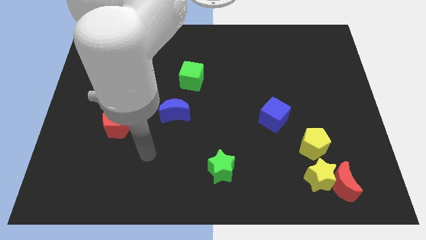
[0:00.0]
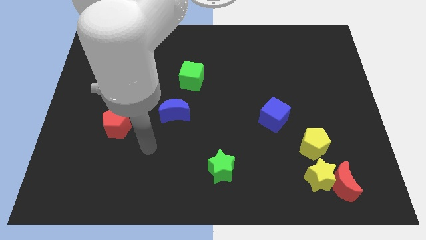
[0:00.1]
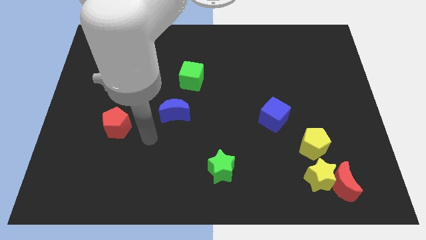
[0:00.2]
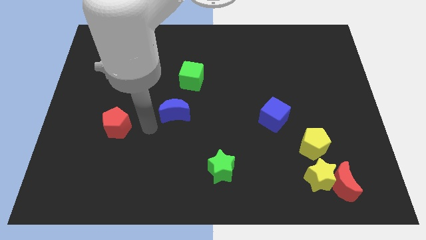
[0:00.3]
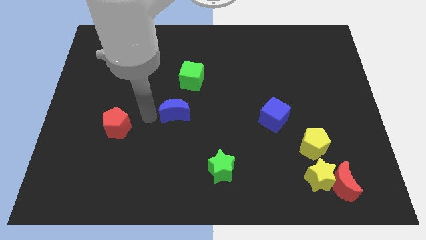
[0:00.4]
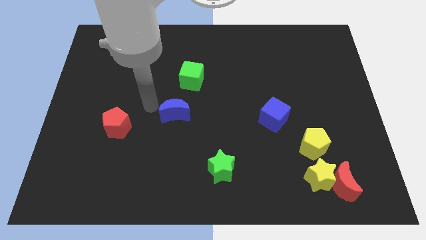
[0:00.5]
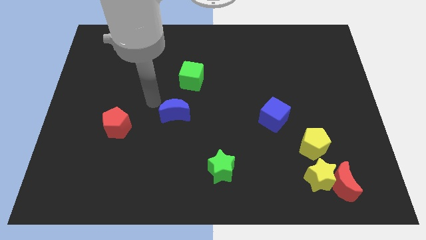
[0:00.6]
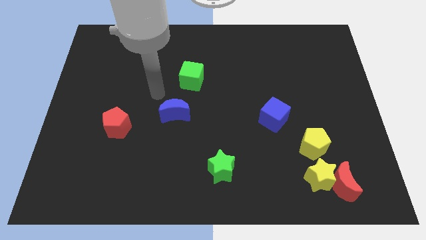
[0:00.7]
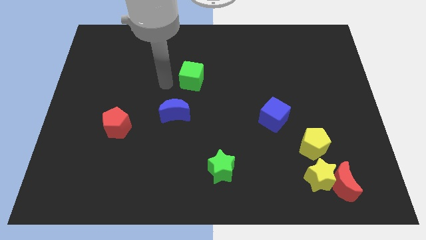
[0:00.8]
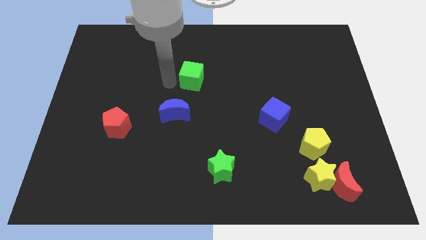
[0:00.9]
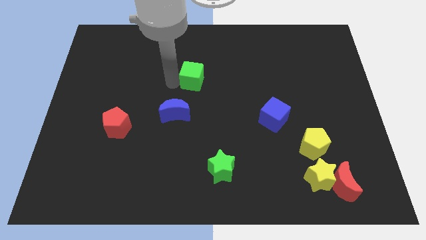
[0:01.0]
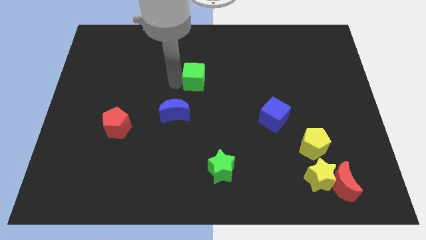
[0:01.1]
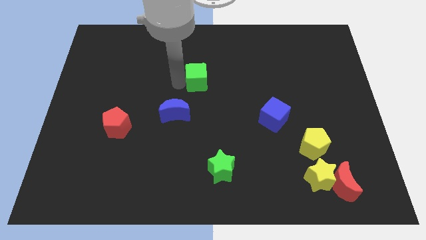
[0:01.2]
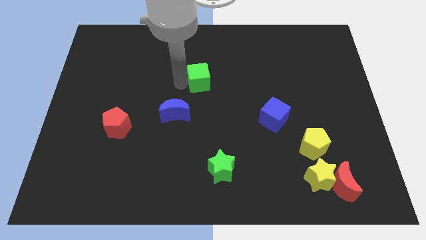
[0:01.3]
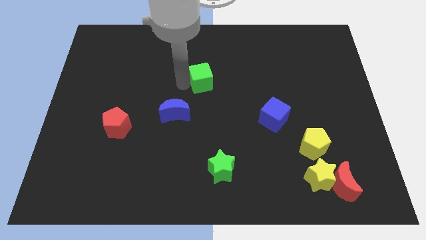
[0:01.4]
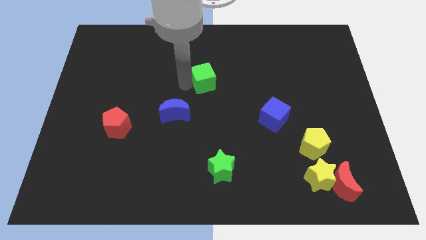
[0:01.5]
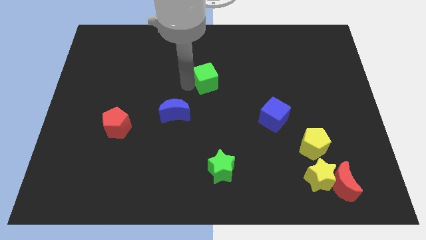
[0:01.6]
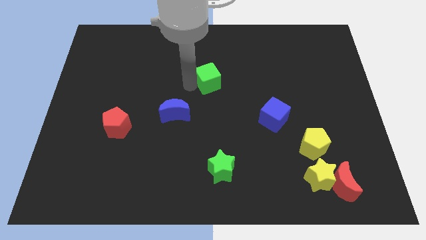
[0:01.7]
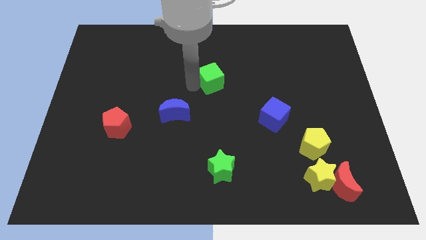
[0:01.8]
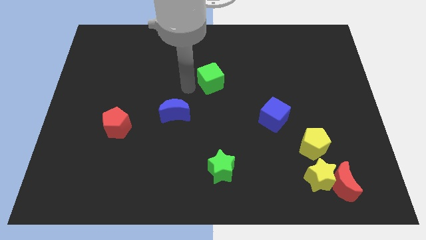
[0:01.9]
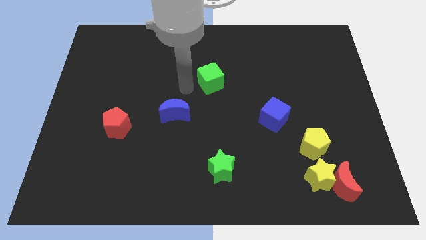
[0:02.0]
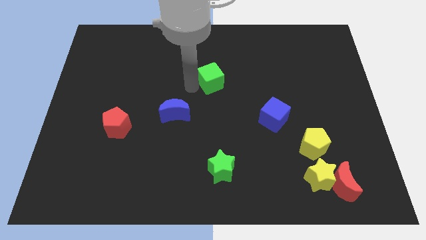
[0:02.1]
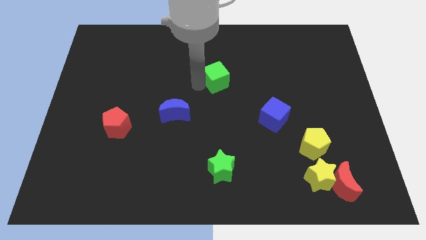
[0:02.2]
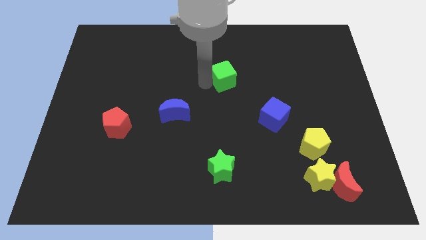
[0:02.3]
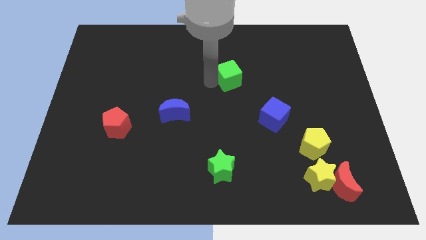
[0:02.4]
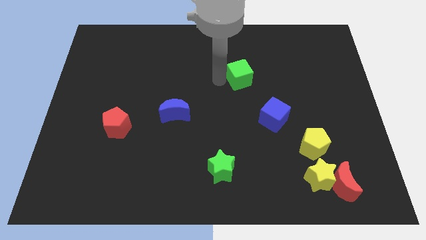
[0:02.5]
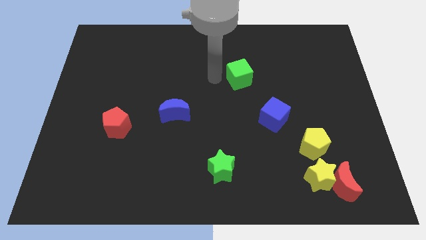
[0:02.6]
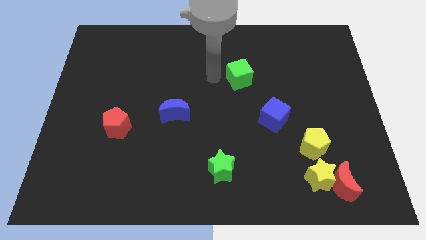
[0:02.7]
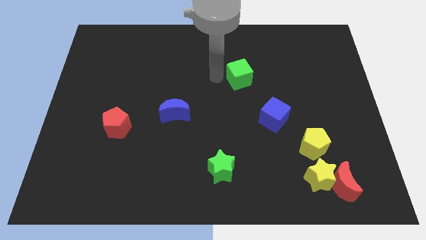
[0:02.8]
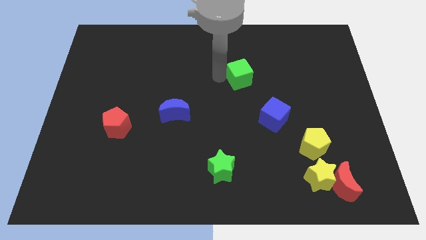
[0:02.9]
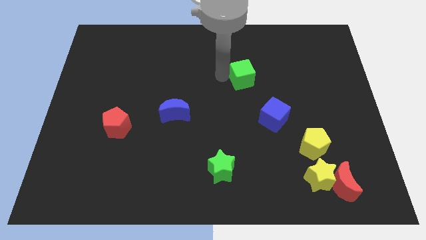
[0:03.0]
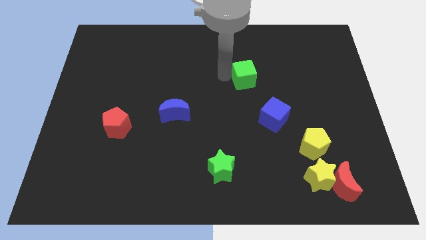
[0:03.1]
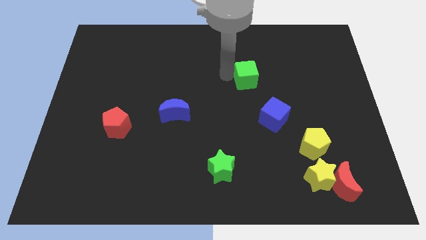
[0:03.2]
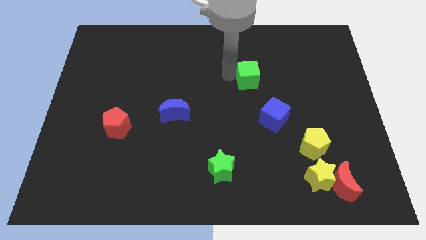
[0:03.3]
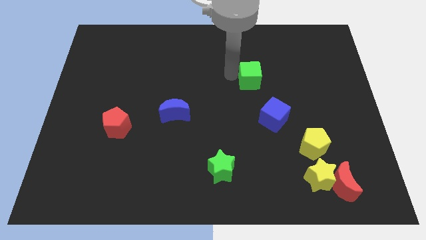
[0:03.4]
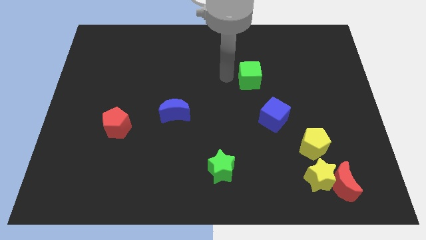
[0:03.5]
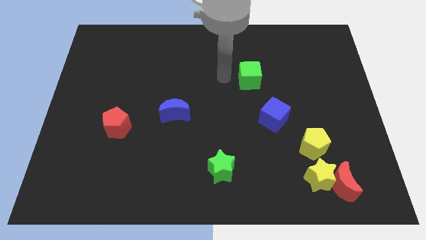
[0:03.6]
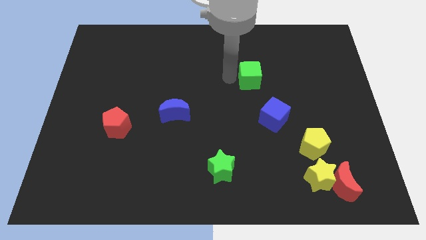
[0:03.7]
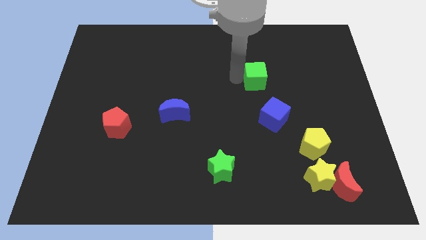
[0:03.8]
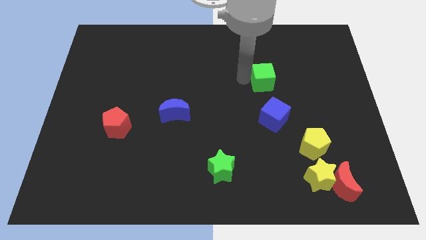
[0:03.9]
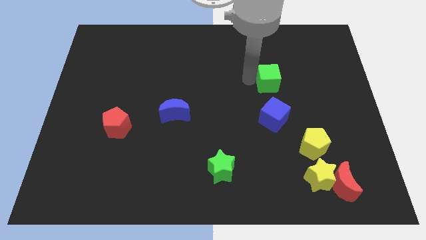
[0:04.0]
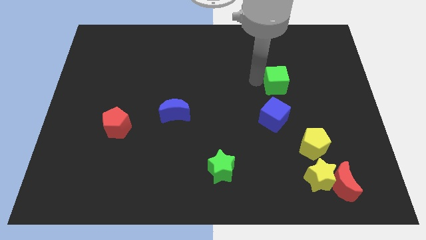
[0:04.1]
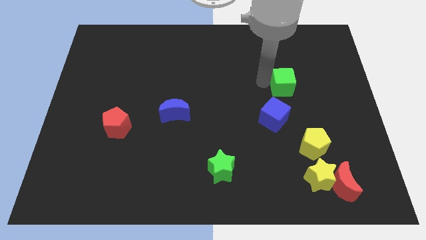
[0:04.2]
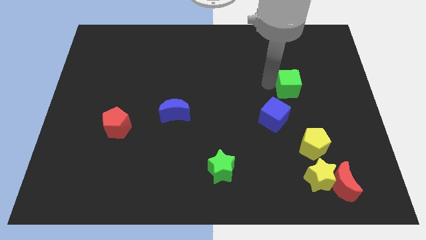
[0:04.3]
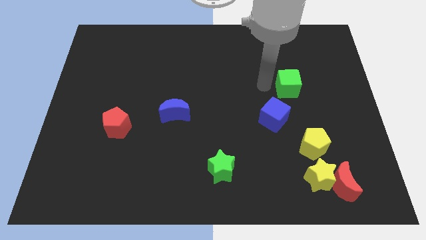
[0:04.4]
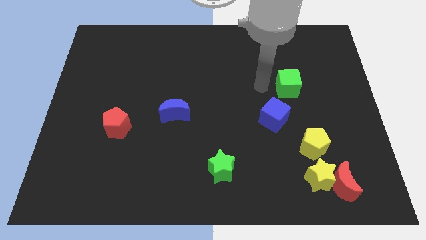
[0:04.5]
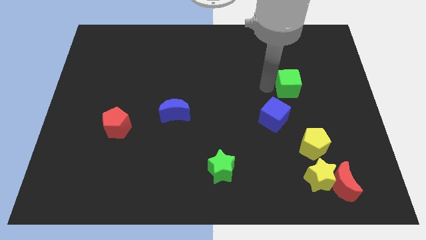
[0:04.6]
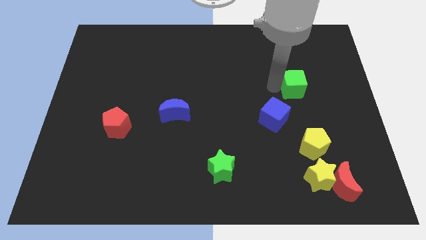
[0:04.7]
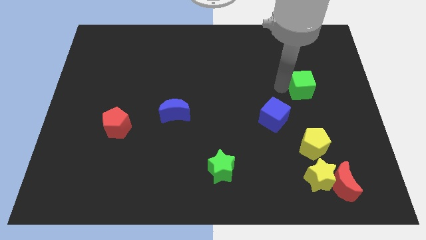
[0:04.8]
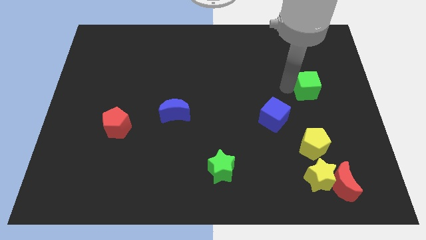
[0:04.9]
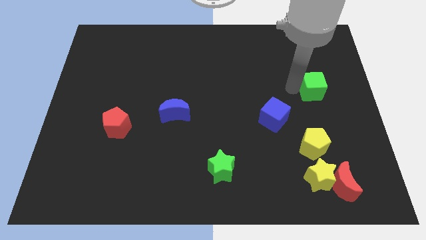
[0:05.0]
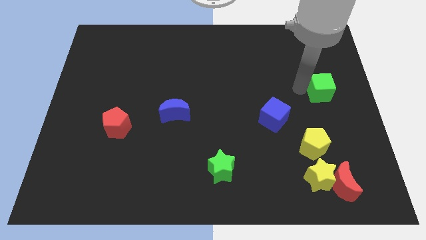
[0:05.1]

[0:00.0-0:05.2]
move the green cube to the right side of the board

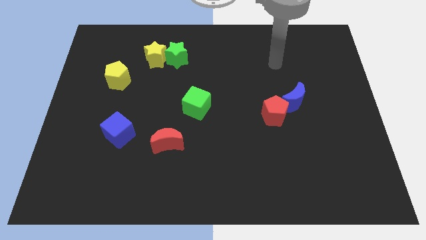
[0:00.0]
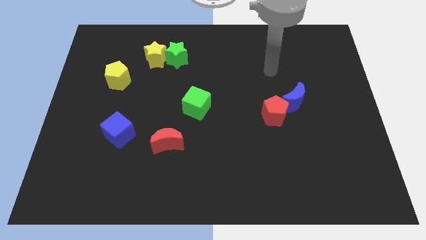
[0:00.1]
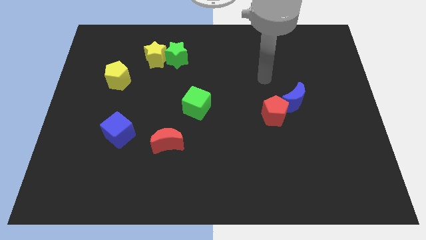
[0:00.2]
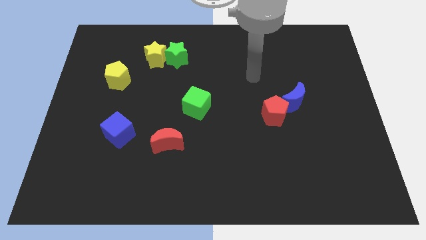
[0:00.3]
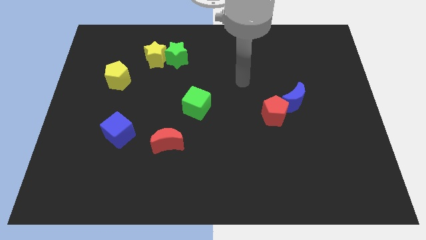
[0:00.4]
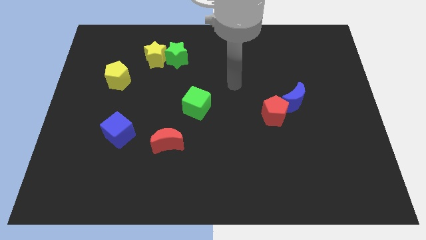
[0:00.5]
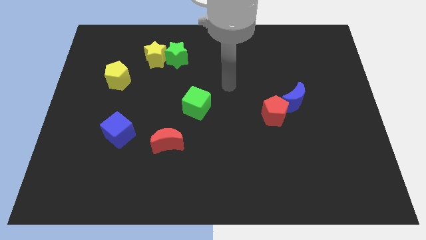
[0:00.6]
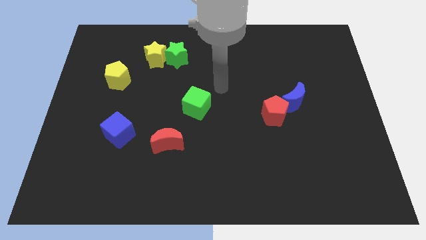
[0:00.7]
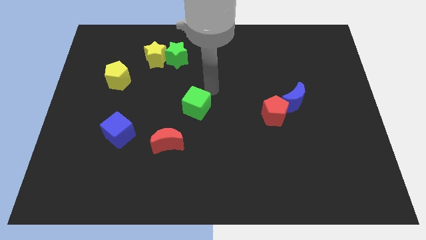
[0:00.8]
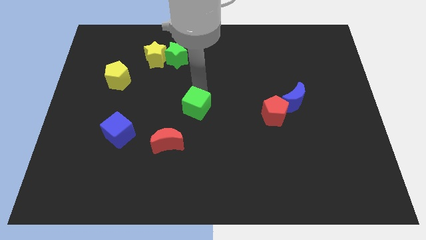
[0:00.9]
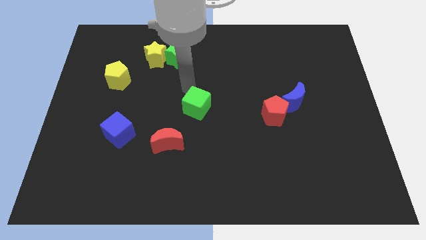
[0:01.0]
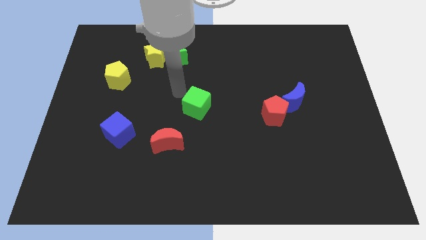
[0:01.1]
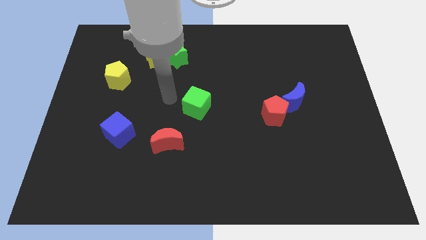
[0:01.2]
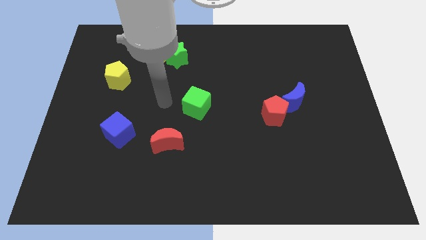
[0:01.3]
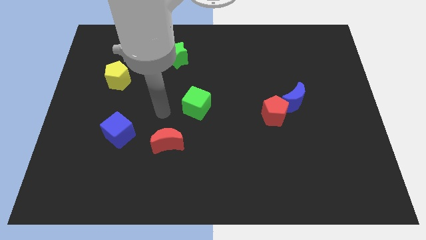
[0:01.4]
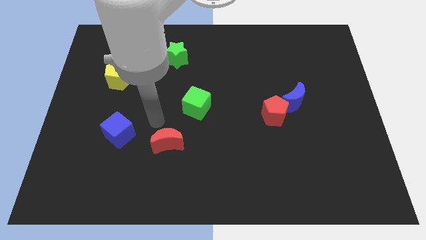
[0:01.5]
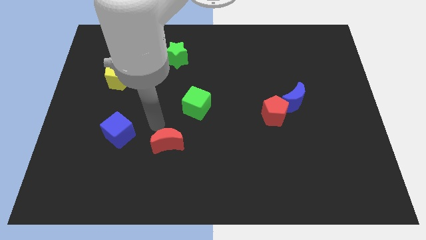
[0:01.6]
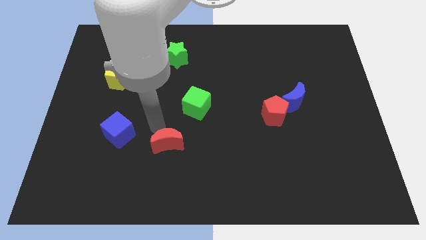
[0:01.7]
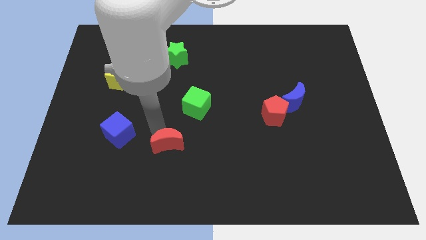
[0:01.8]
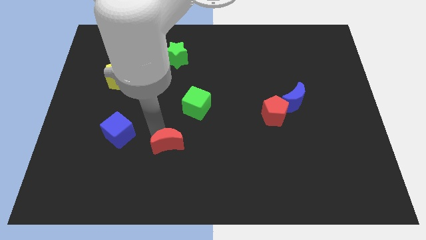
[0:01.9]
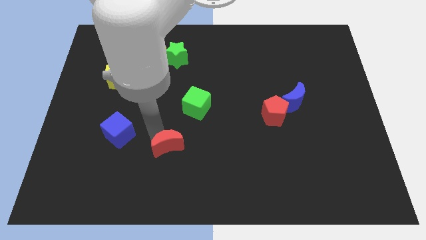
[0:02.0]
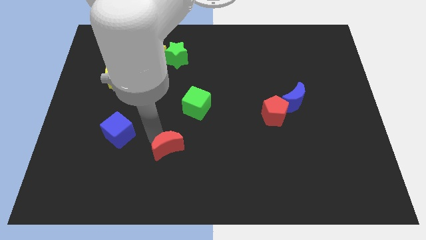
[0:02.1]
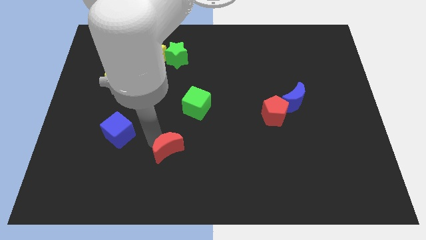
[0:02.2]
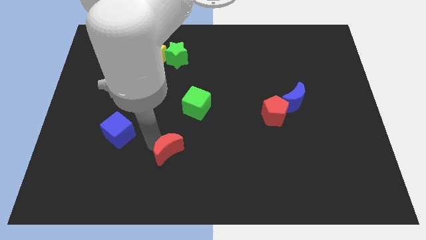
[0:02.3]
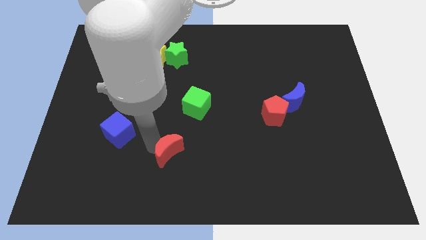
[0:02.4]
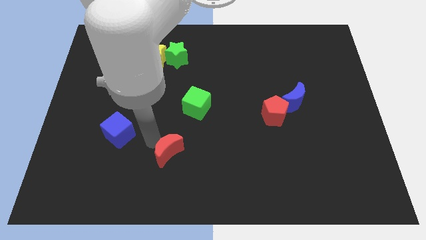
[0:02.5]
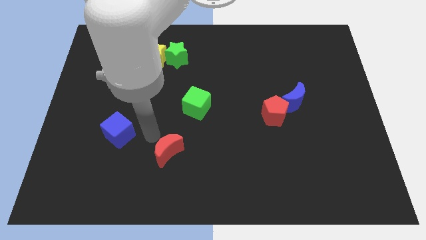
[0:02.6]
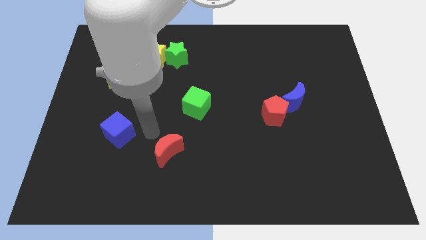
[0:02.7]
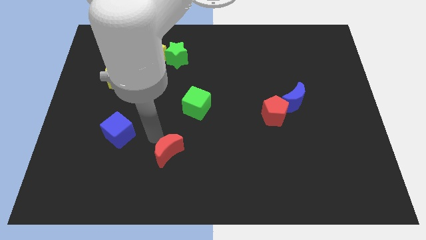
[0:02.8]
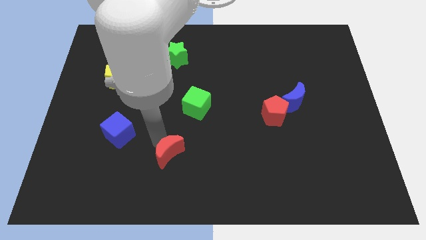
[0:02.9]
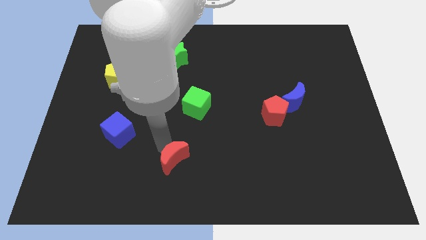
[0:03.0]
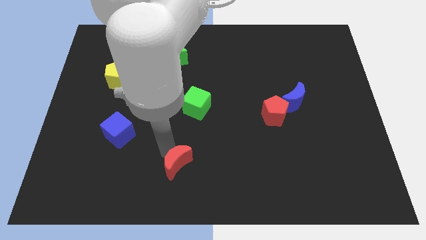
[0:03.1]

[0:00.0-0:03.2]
put the red moon to the bottom
